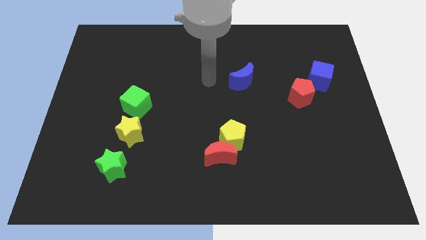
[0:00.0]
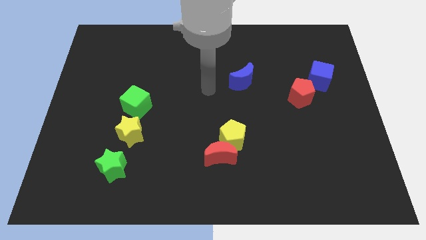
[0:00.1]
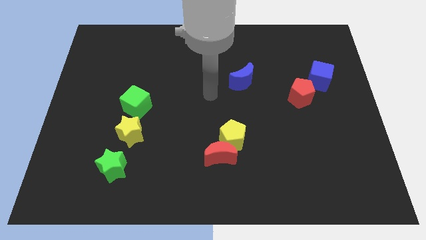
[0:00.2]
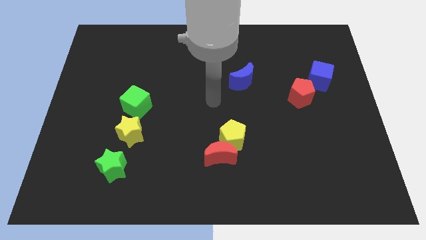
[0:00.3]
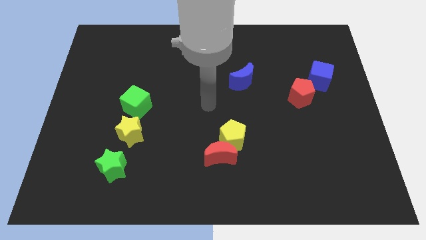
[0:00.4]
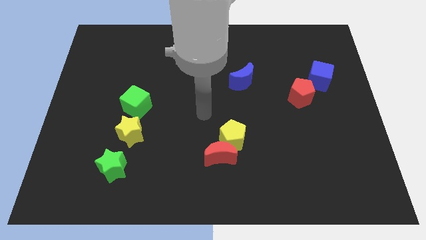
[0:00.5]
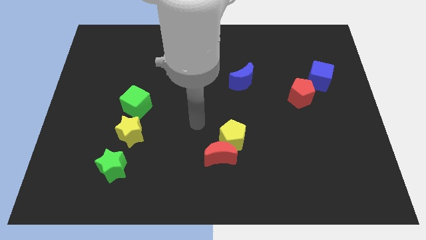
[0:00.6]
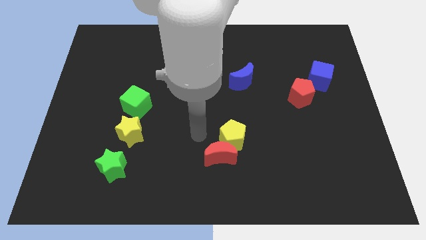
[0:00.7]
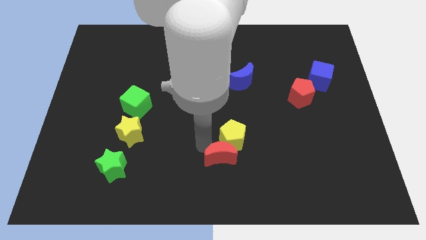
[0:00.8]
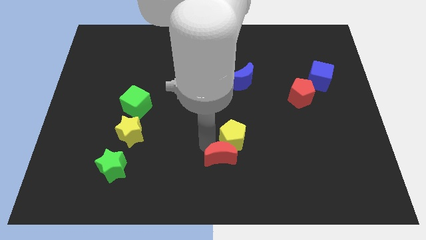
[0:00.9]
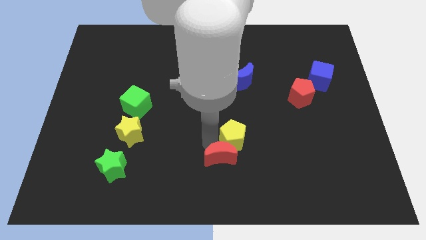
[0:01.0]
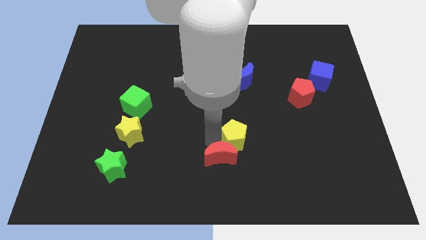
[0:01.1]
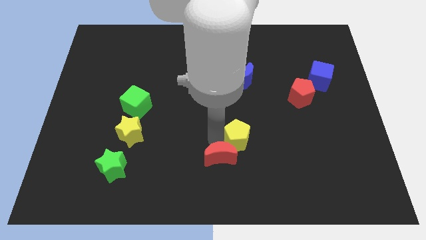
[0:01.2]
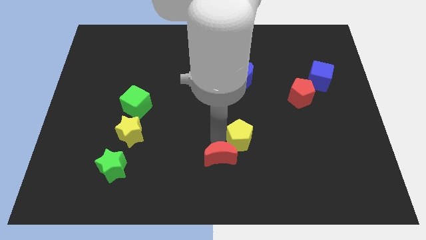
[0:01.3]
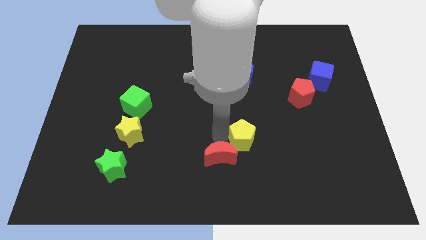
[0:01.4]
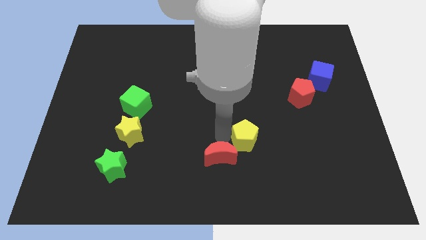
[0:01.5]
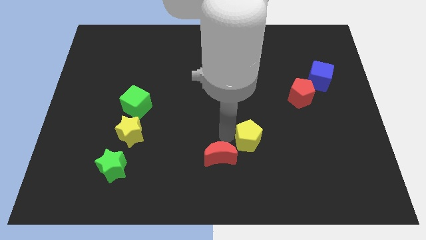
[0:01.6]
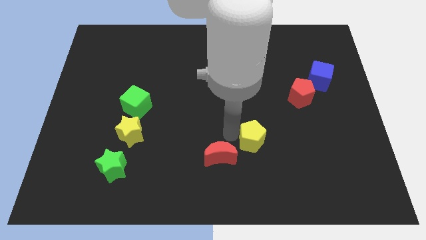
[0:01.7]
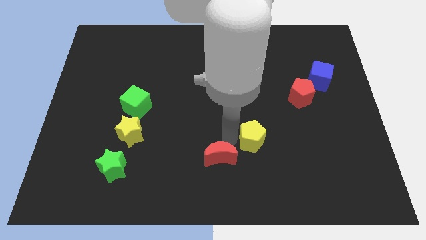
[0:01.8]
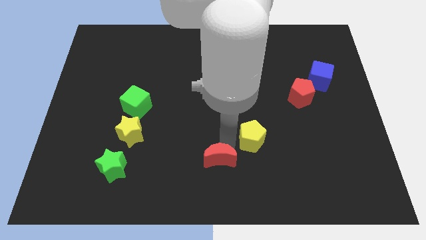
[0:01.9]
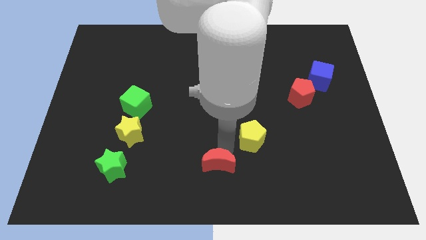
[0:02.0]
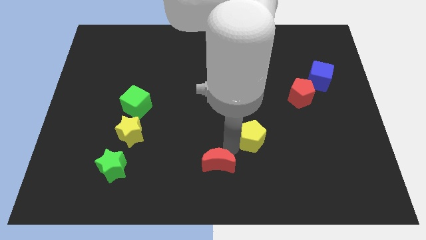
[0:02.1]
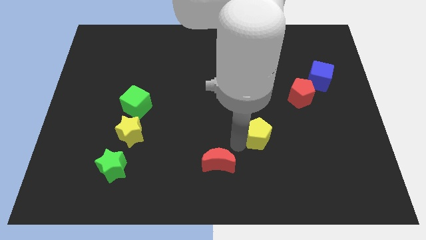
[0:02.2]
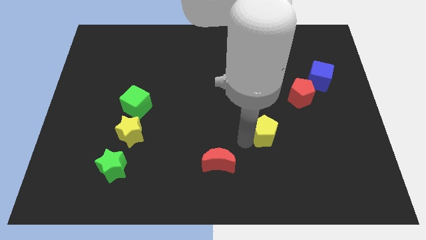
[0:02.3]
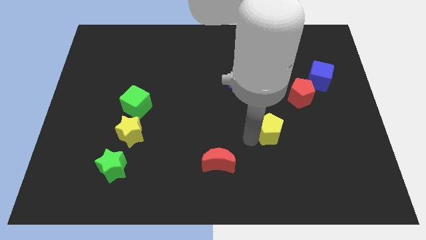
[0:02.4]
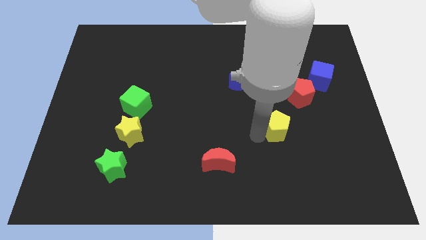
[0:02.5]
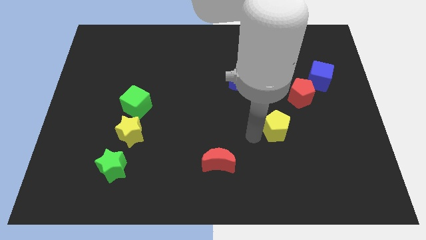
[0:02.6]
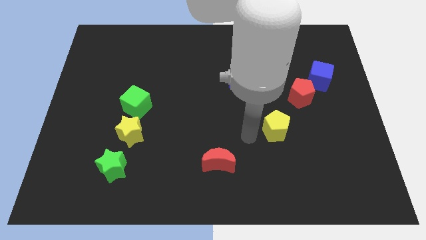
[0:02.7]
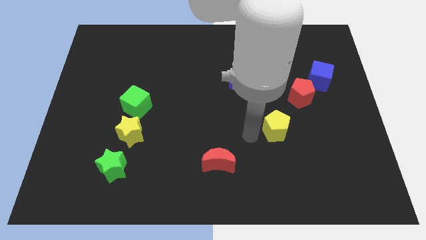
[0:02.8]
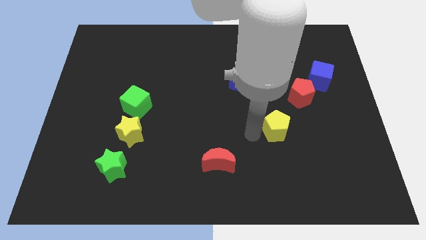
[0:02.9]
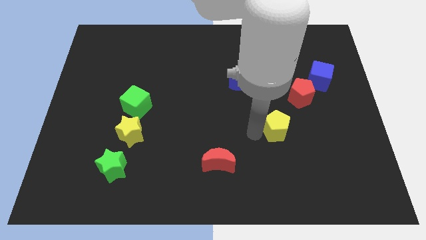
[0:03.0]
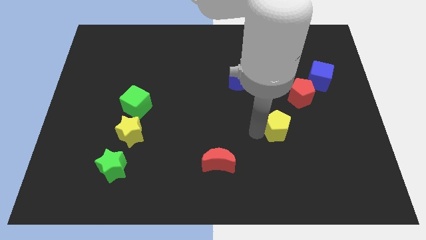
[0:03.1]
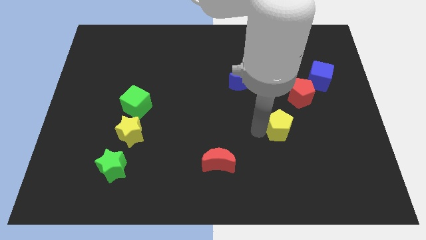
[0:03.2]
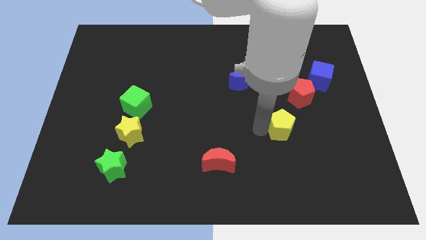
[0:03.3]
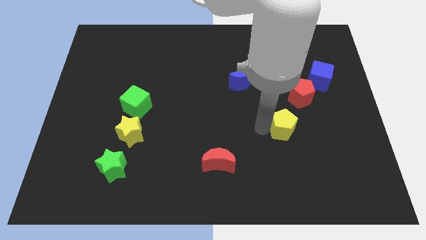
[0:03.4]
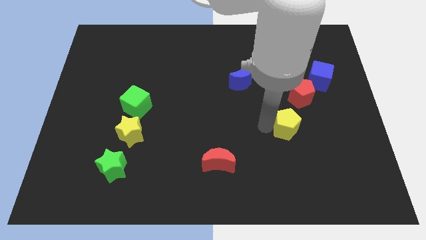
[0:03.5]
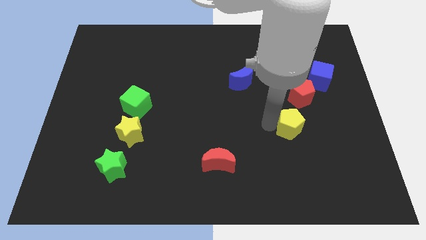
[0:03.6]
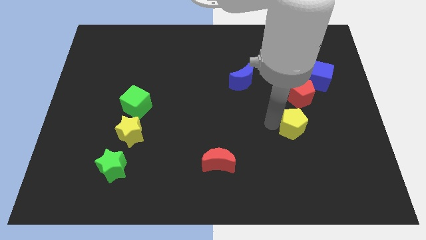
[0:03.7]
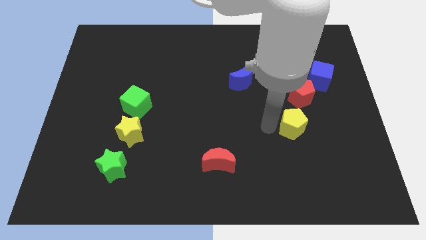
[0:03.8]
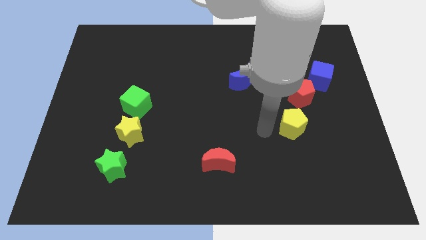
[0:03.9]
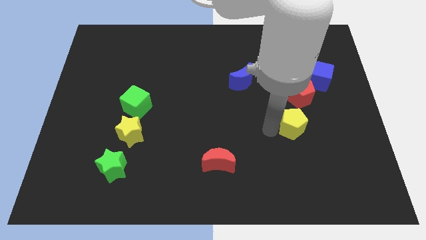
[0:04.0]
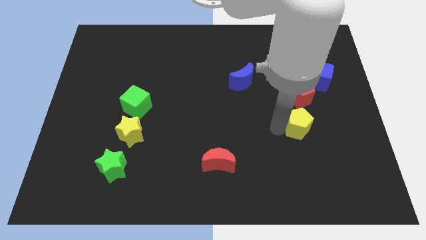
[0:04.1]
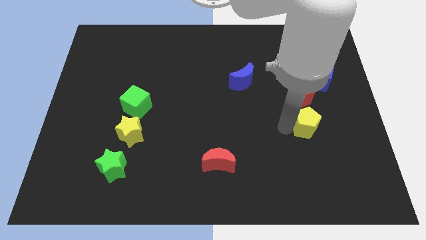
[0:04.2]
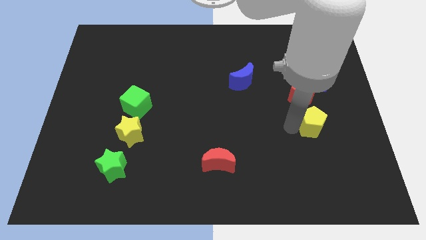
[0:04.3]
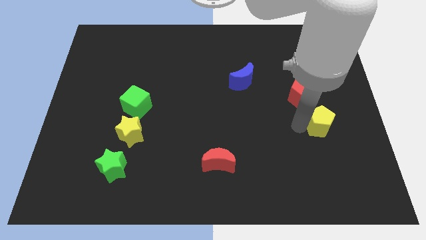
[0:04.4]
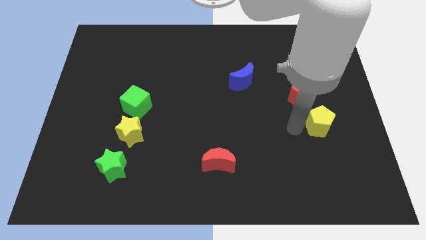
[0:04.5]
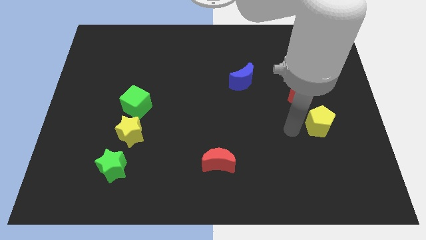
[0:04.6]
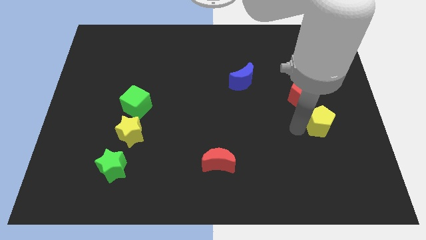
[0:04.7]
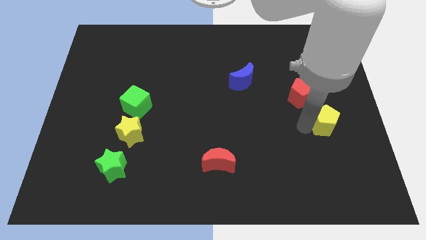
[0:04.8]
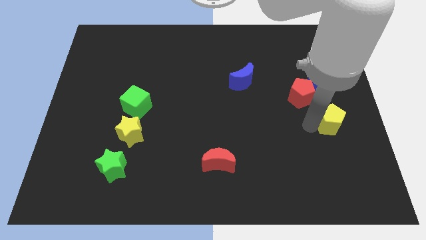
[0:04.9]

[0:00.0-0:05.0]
put the yellow pentagon to the right side
